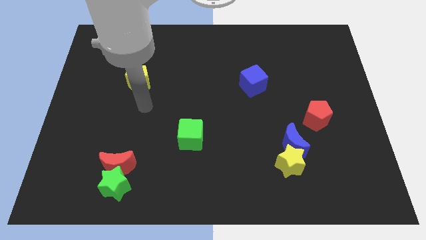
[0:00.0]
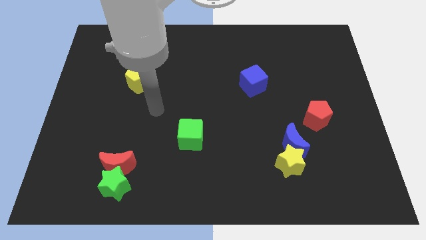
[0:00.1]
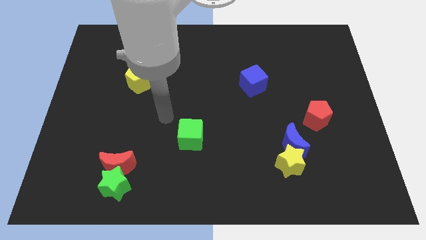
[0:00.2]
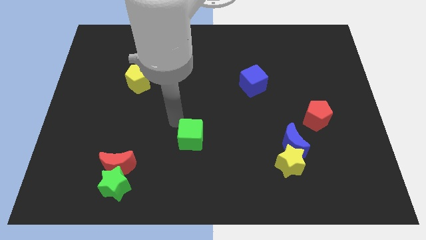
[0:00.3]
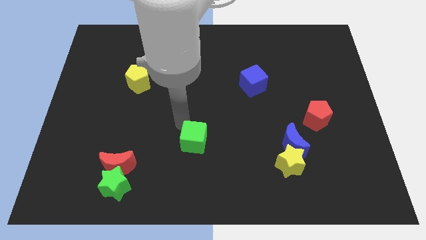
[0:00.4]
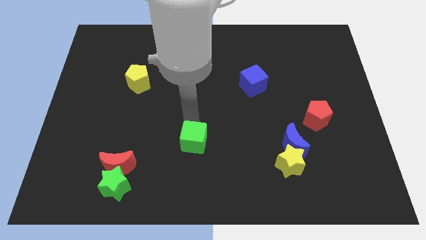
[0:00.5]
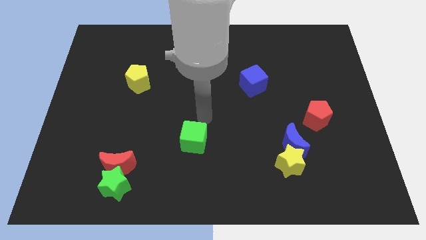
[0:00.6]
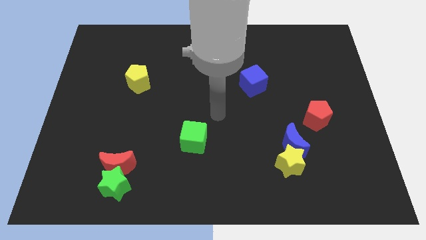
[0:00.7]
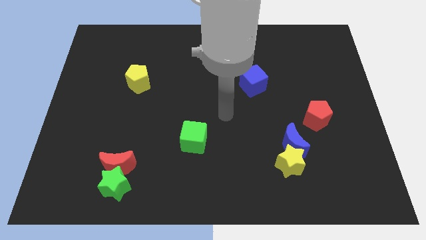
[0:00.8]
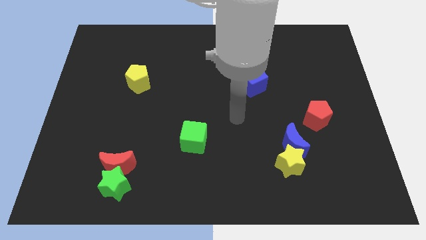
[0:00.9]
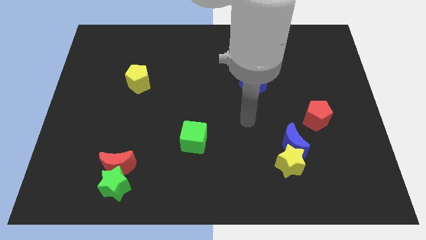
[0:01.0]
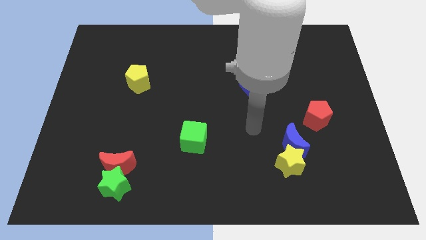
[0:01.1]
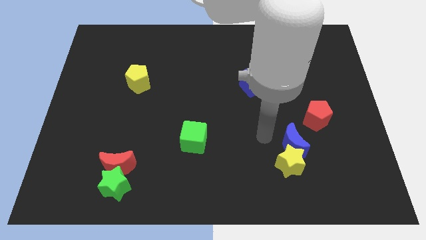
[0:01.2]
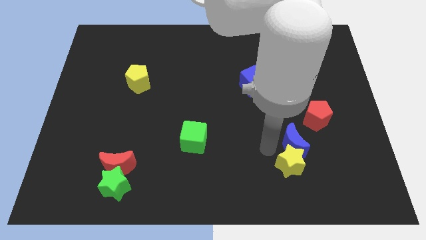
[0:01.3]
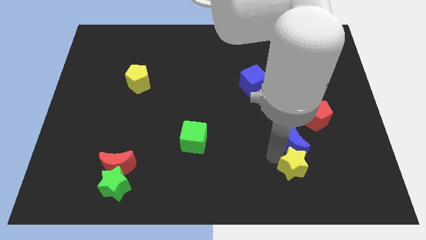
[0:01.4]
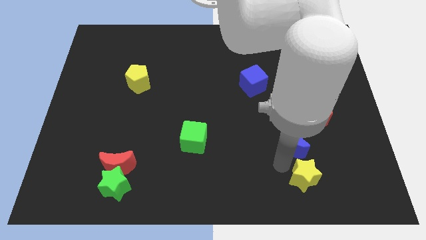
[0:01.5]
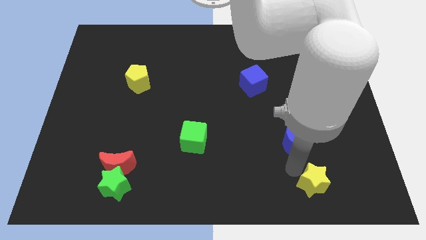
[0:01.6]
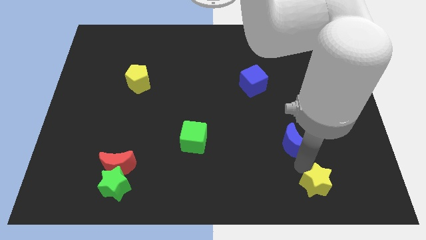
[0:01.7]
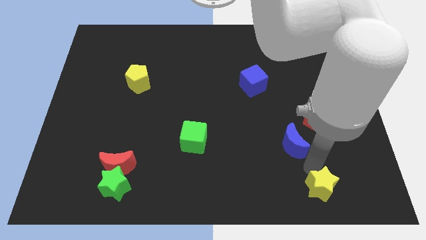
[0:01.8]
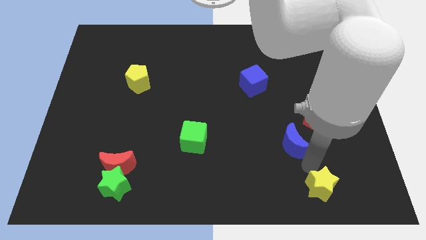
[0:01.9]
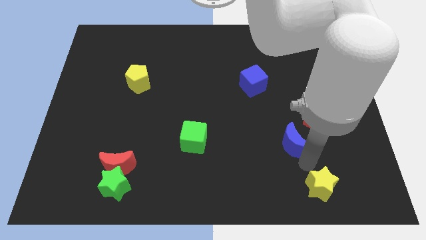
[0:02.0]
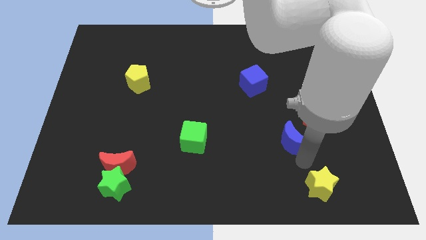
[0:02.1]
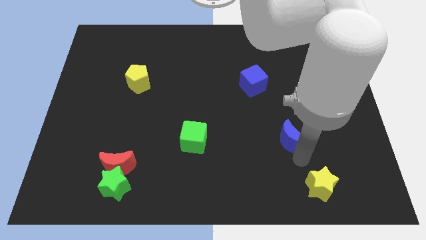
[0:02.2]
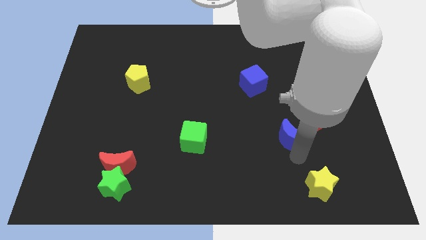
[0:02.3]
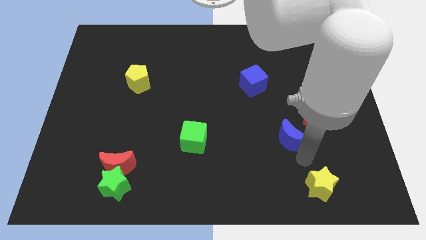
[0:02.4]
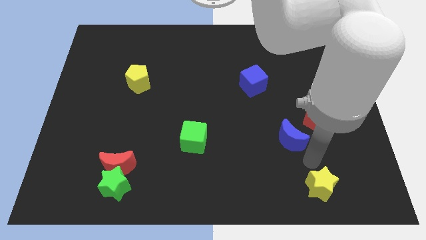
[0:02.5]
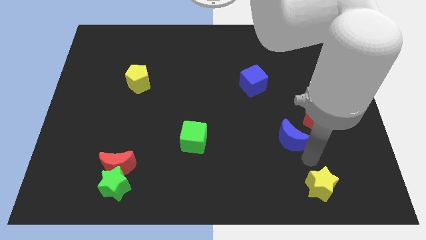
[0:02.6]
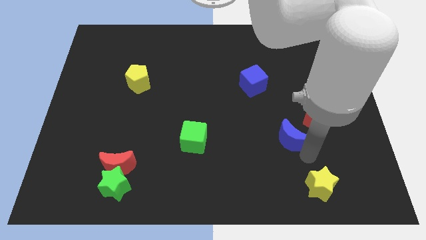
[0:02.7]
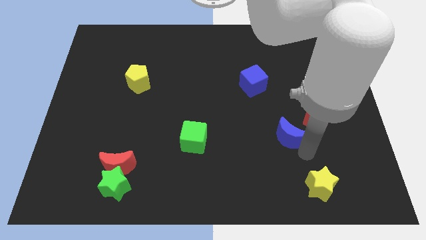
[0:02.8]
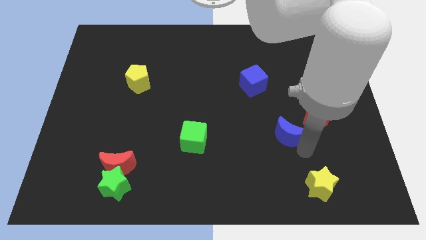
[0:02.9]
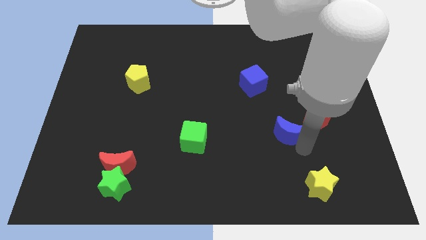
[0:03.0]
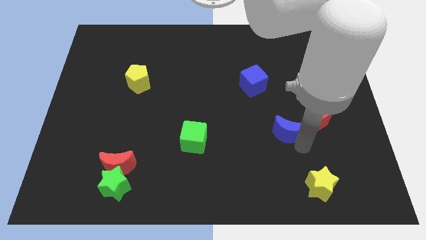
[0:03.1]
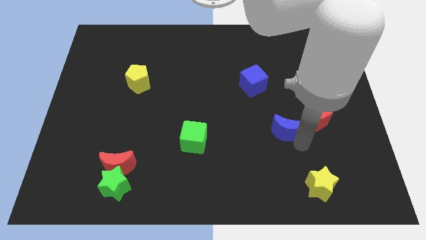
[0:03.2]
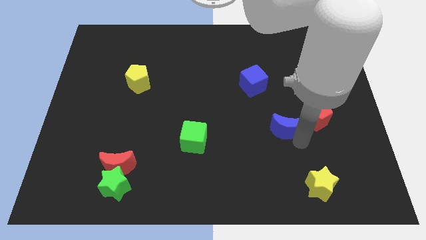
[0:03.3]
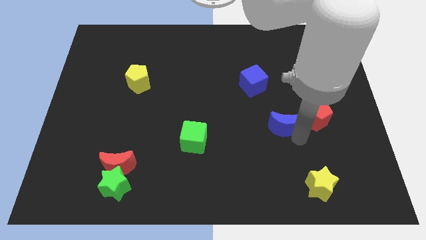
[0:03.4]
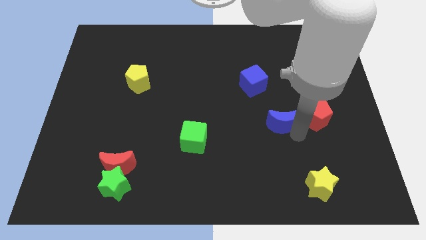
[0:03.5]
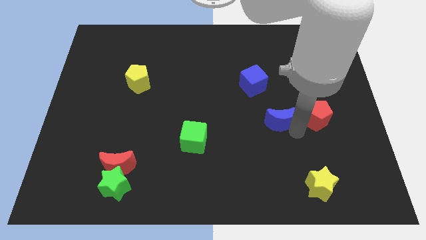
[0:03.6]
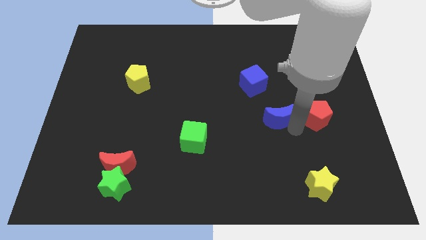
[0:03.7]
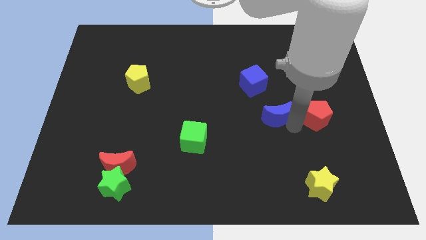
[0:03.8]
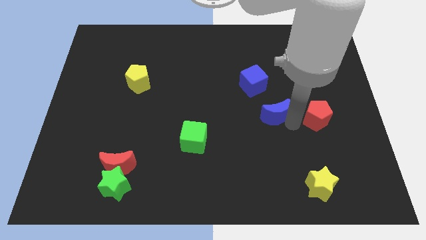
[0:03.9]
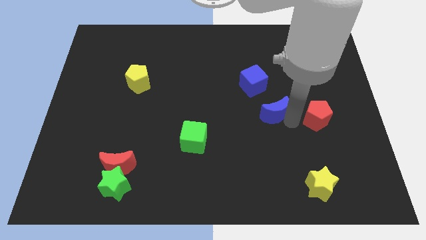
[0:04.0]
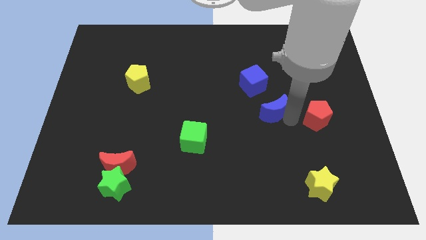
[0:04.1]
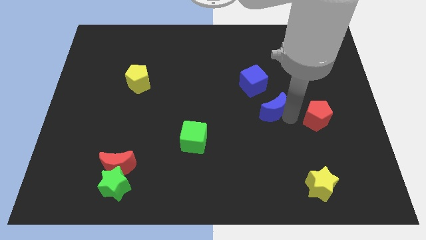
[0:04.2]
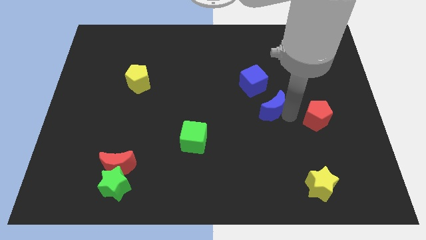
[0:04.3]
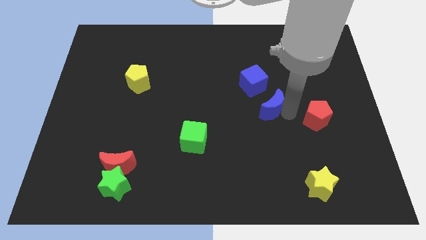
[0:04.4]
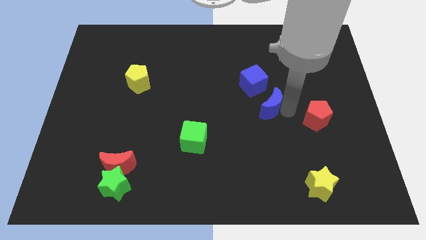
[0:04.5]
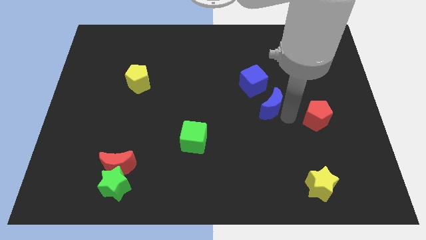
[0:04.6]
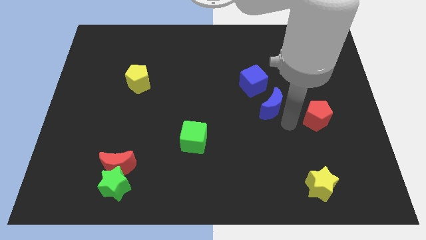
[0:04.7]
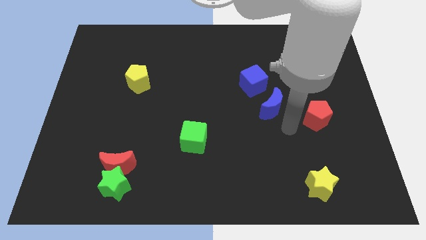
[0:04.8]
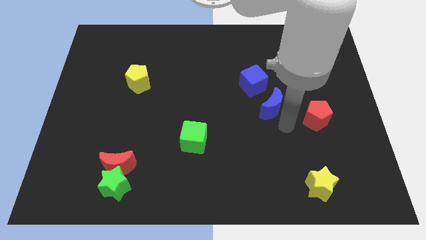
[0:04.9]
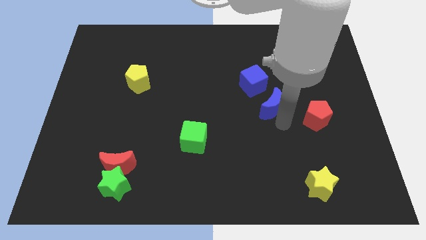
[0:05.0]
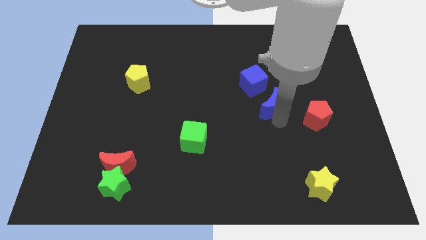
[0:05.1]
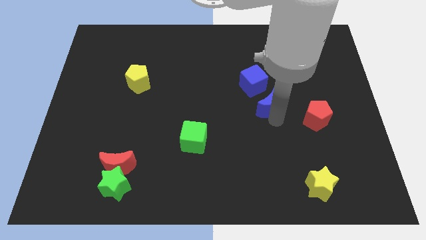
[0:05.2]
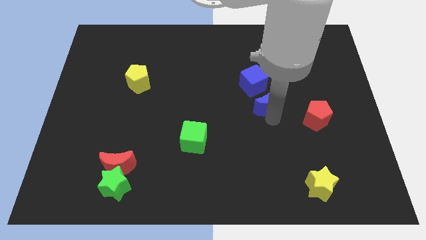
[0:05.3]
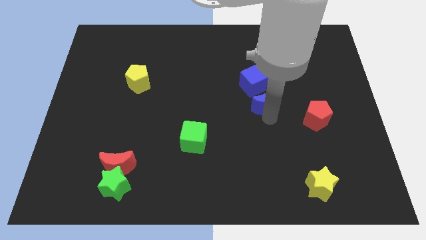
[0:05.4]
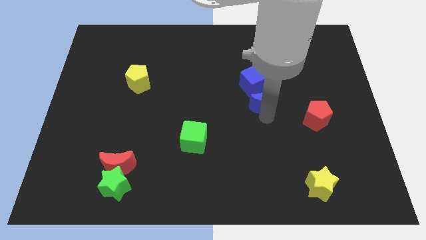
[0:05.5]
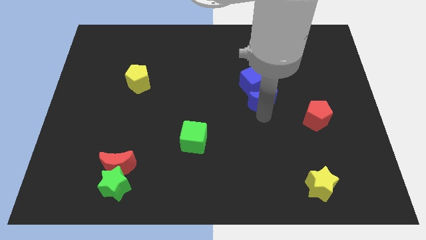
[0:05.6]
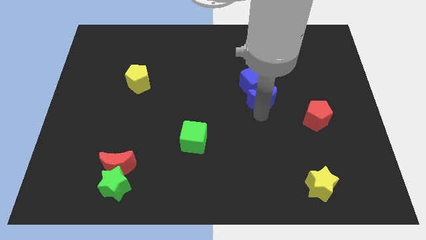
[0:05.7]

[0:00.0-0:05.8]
slide the blue moon towards the blue cube

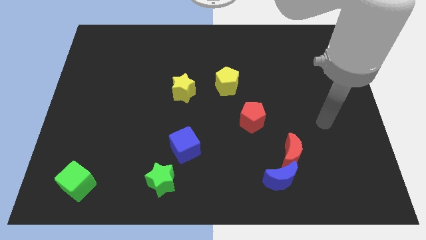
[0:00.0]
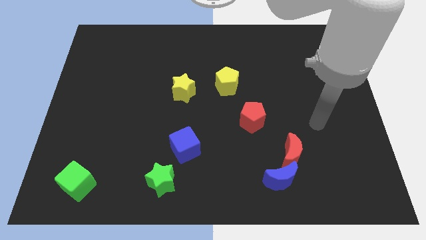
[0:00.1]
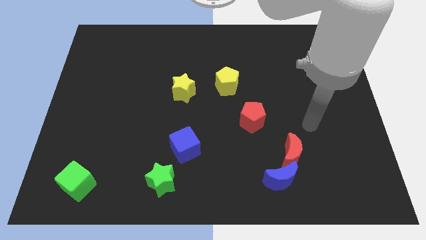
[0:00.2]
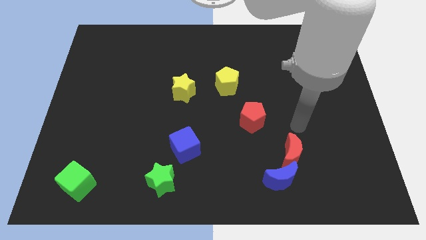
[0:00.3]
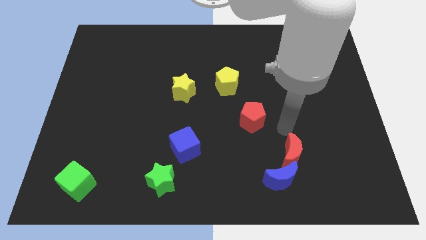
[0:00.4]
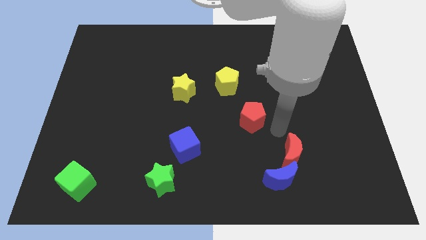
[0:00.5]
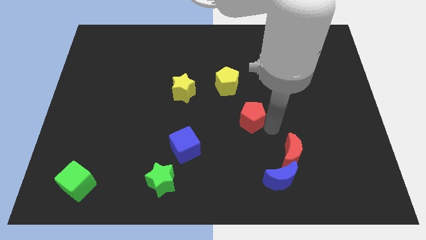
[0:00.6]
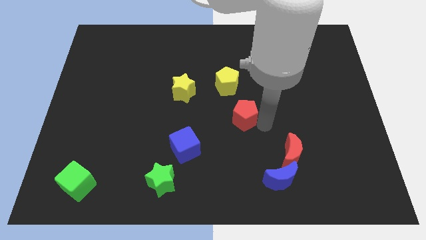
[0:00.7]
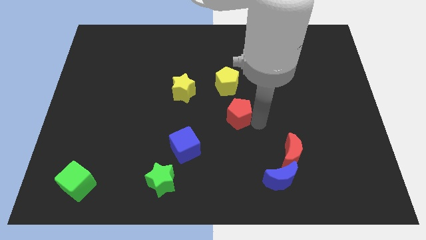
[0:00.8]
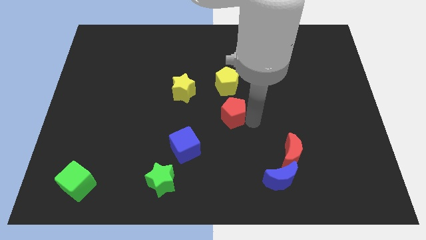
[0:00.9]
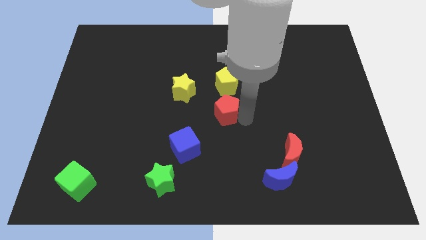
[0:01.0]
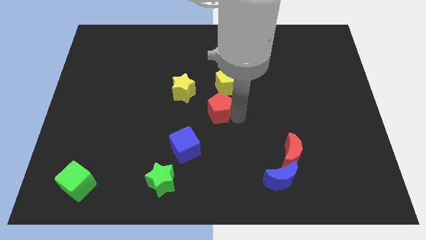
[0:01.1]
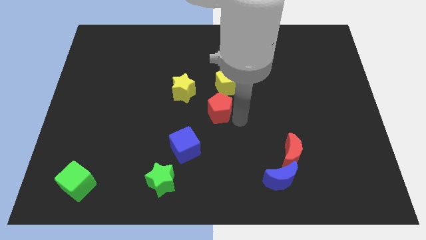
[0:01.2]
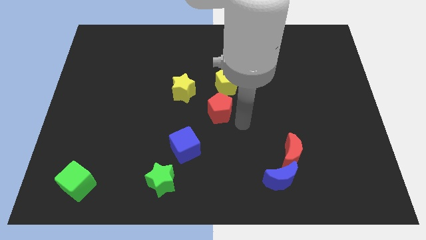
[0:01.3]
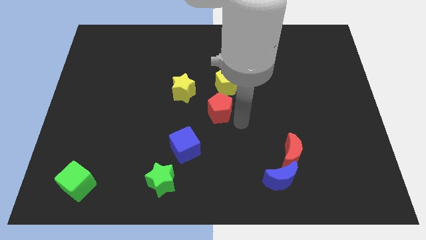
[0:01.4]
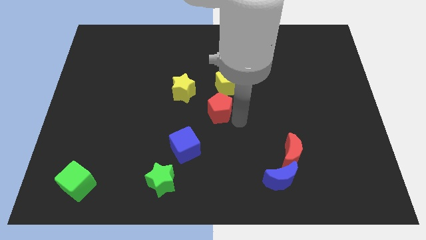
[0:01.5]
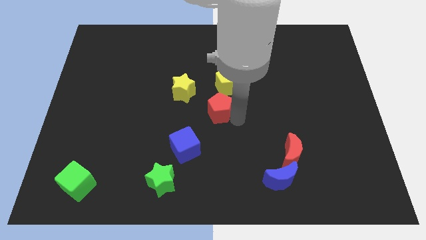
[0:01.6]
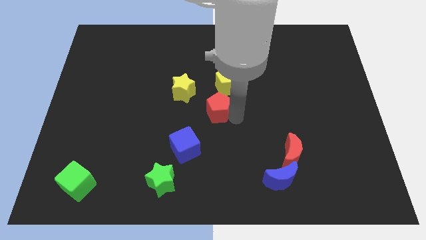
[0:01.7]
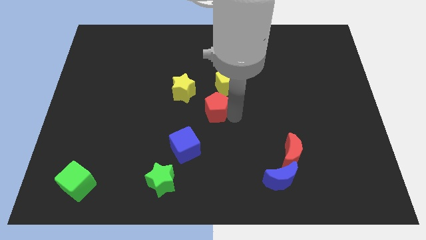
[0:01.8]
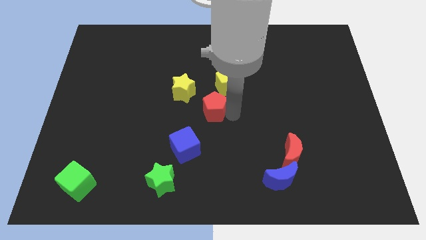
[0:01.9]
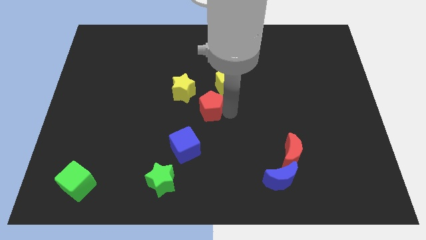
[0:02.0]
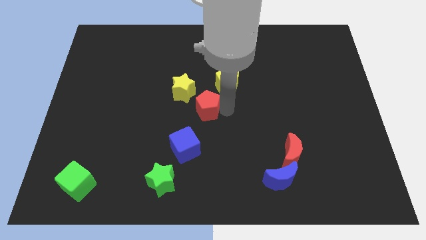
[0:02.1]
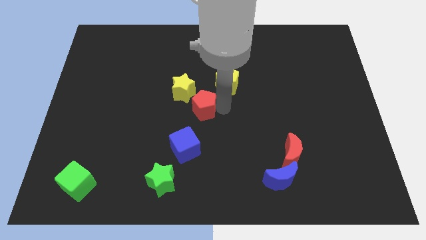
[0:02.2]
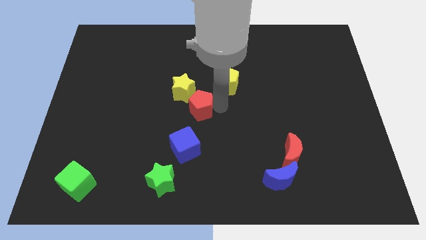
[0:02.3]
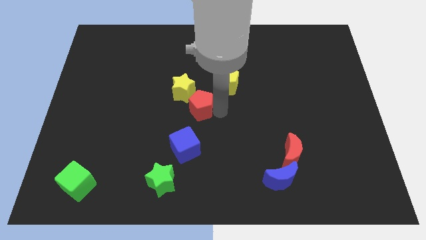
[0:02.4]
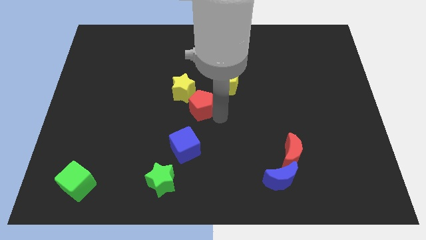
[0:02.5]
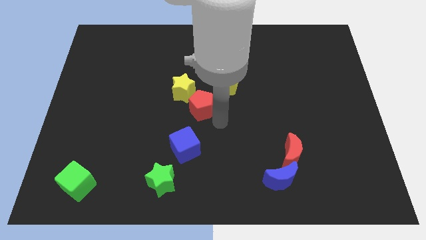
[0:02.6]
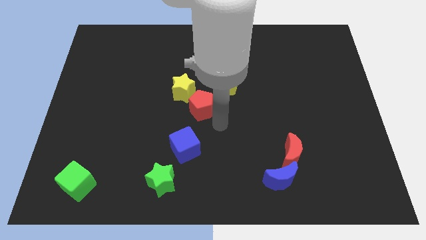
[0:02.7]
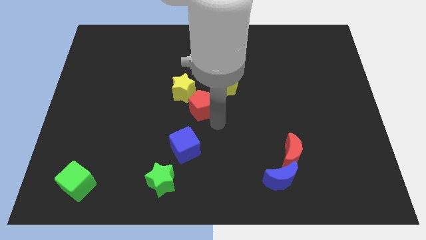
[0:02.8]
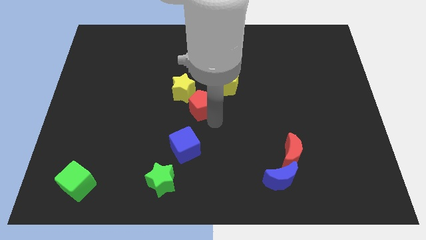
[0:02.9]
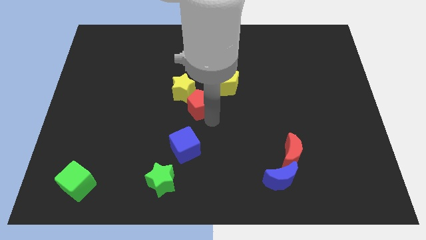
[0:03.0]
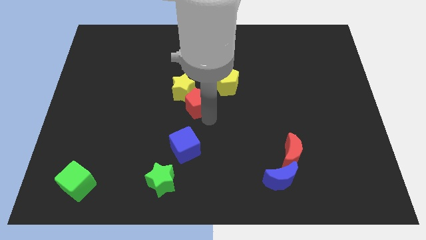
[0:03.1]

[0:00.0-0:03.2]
move the red pentagon to the yellow star
